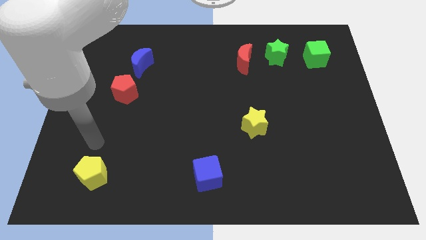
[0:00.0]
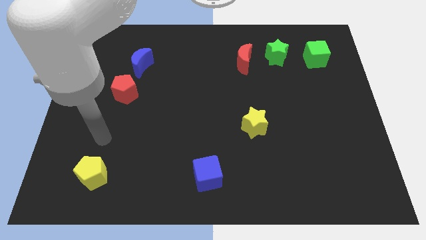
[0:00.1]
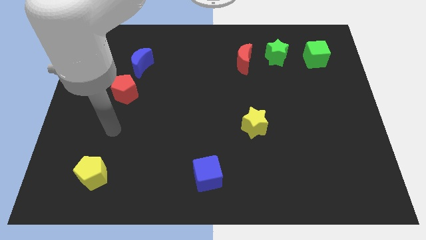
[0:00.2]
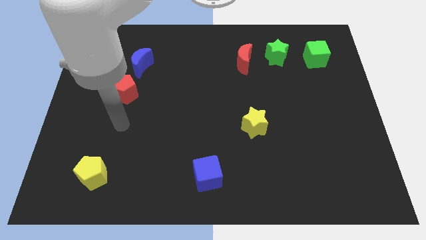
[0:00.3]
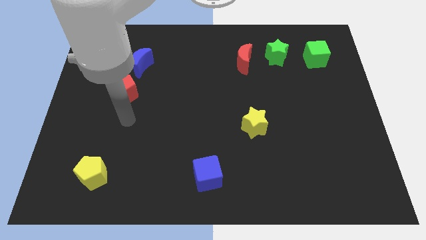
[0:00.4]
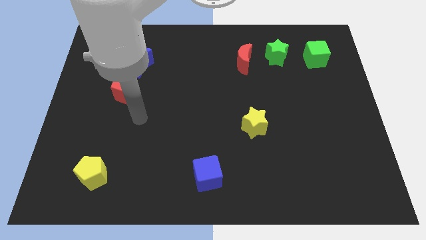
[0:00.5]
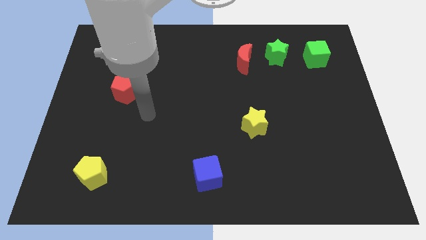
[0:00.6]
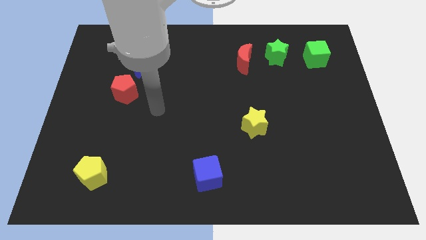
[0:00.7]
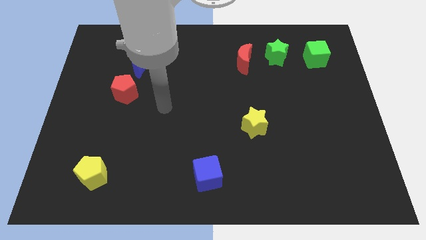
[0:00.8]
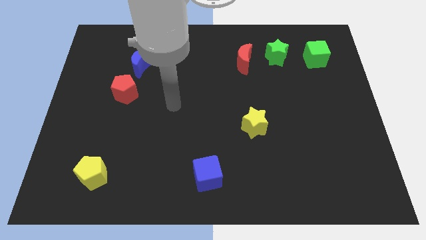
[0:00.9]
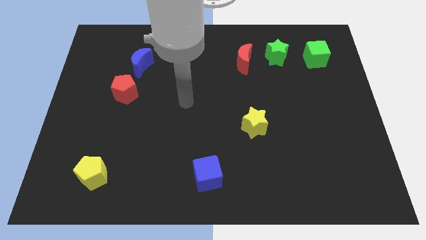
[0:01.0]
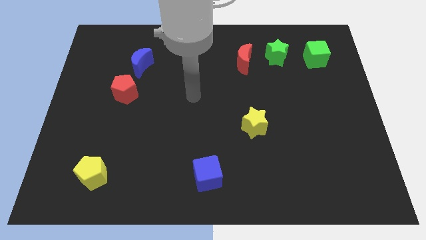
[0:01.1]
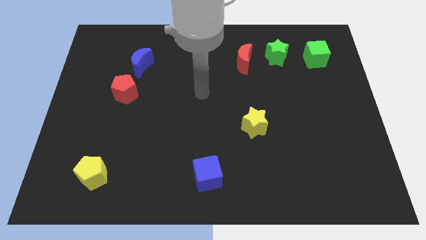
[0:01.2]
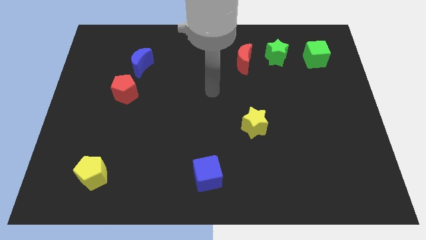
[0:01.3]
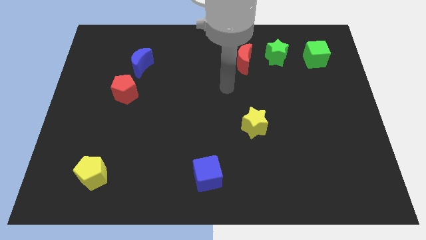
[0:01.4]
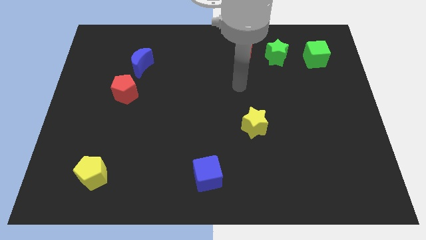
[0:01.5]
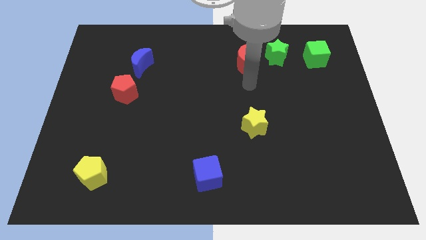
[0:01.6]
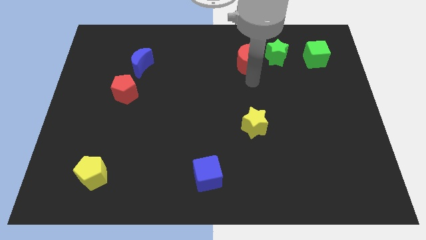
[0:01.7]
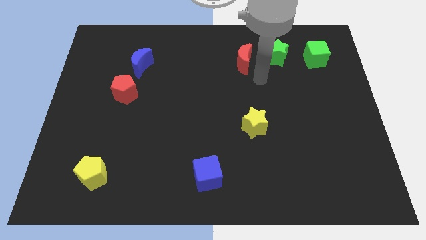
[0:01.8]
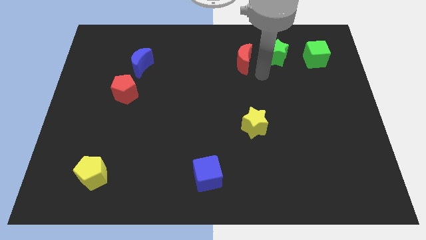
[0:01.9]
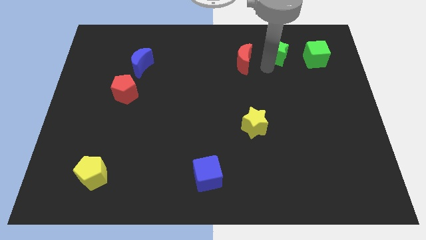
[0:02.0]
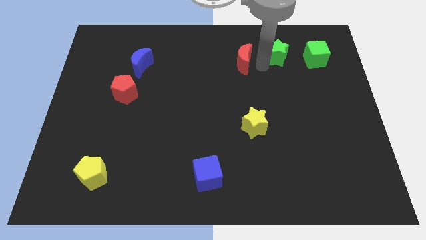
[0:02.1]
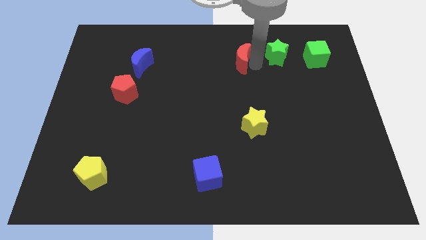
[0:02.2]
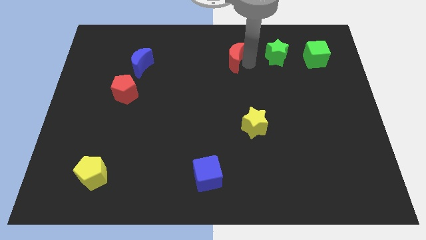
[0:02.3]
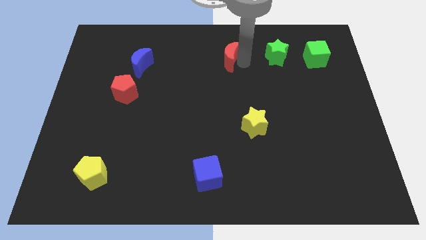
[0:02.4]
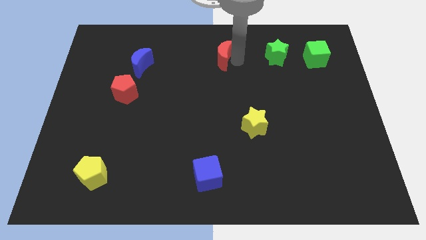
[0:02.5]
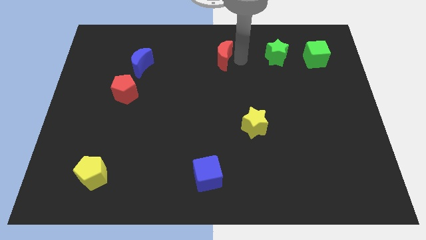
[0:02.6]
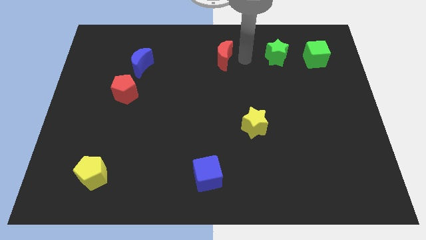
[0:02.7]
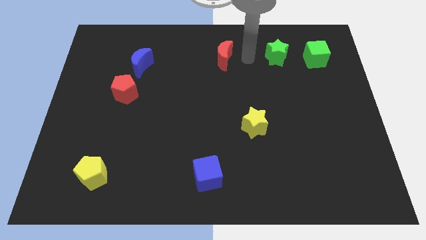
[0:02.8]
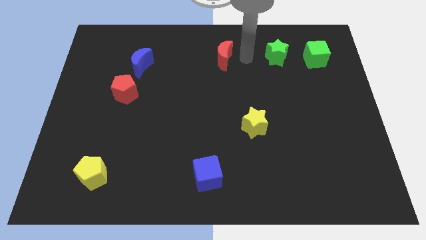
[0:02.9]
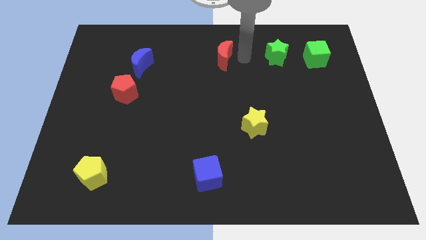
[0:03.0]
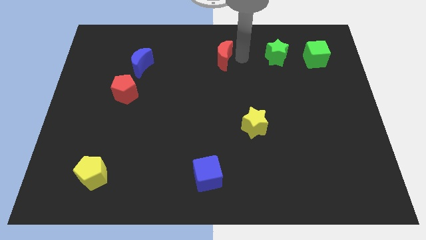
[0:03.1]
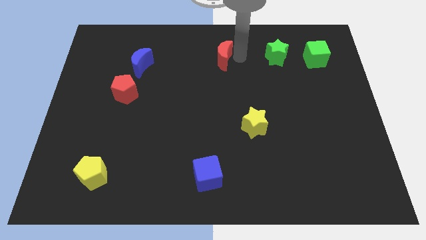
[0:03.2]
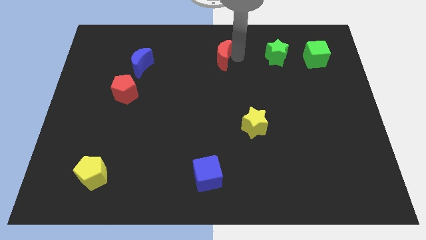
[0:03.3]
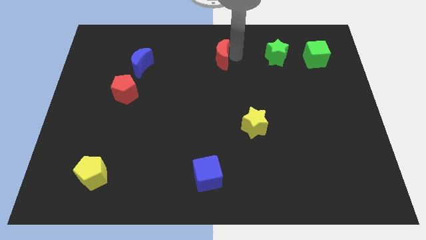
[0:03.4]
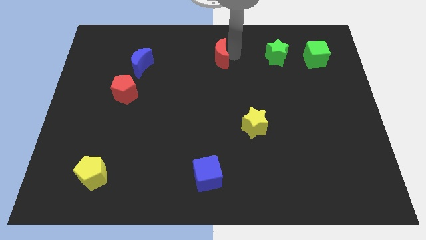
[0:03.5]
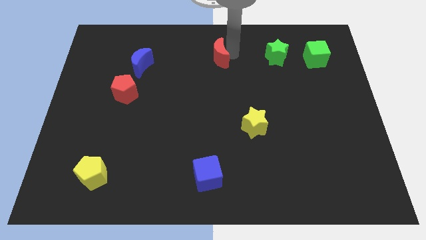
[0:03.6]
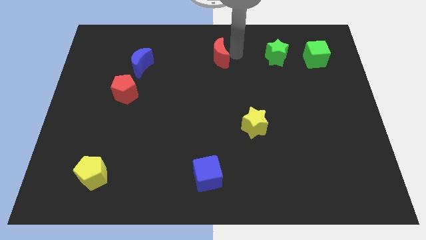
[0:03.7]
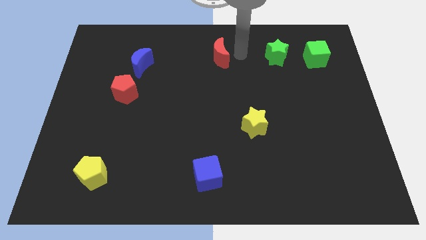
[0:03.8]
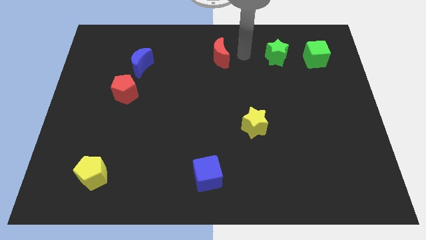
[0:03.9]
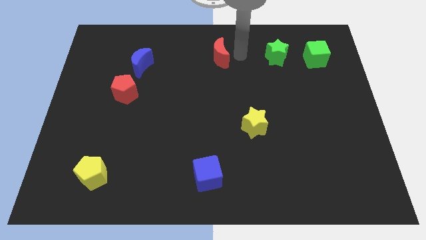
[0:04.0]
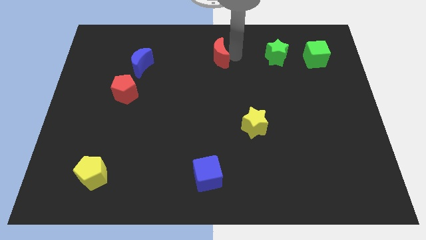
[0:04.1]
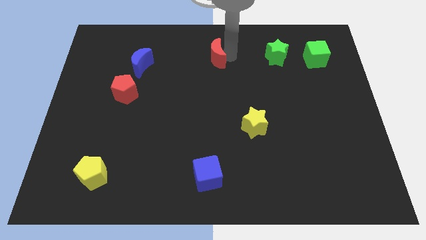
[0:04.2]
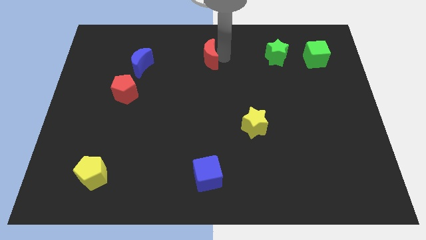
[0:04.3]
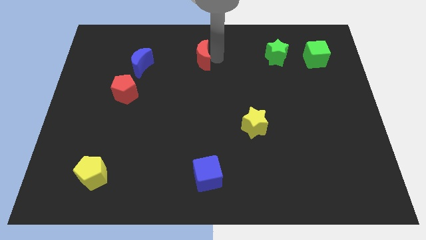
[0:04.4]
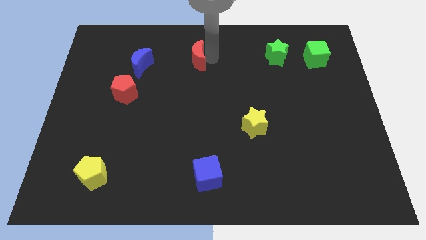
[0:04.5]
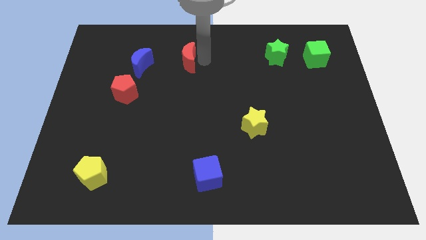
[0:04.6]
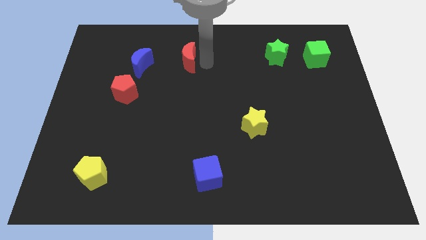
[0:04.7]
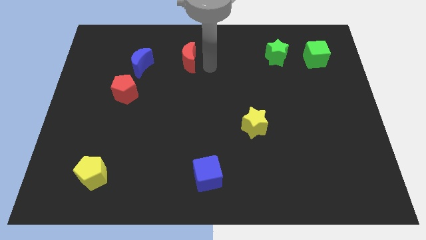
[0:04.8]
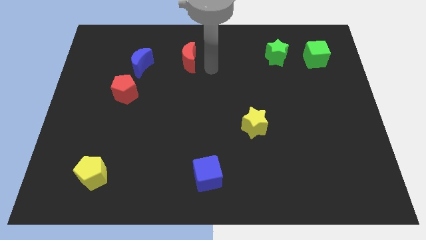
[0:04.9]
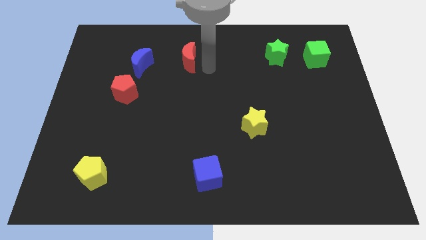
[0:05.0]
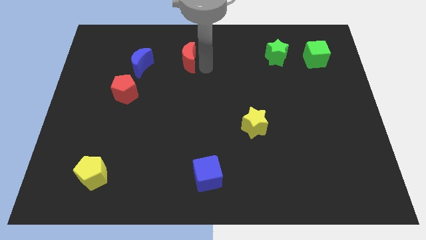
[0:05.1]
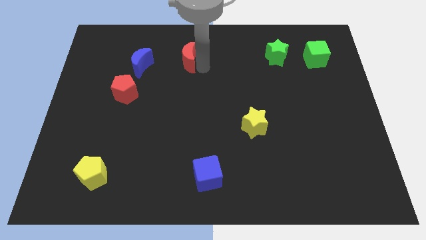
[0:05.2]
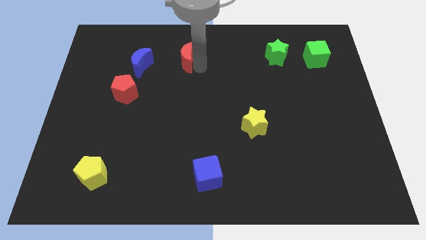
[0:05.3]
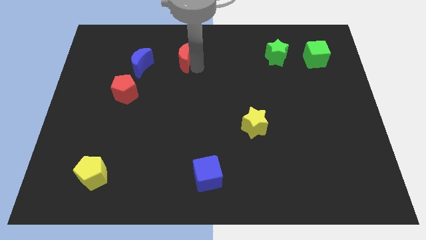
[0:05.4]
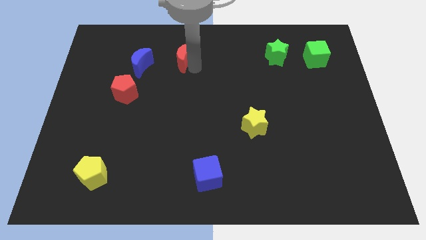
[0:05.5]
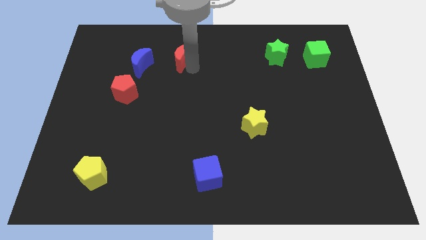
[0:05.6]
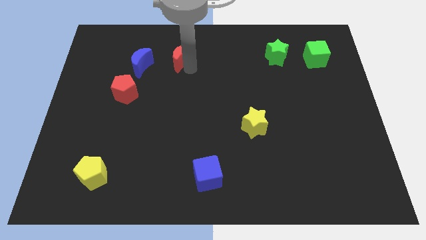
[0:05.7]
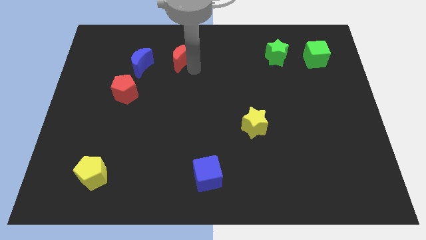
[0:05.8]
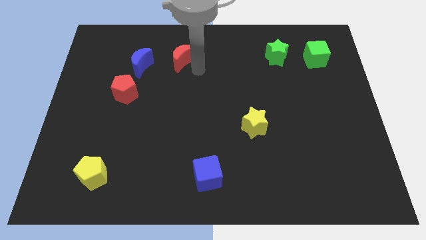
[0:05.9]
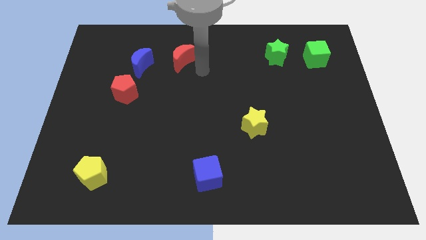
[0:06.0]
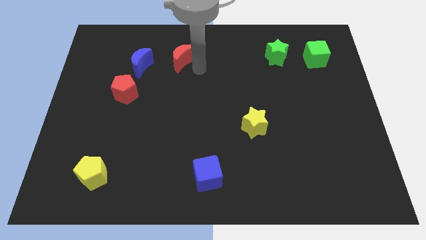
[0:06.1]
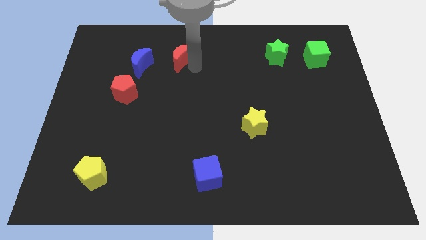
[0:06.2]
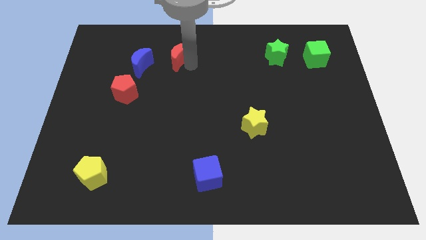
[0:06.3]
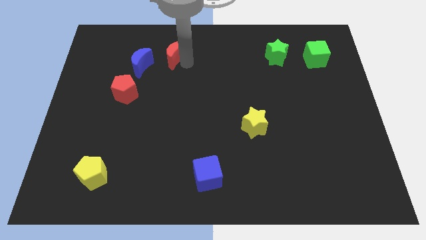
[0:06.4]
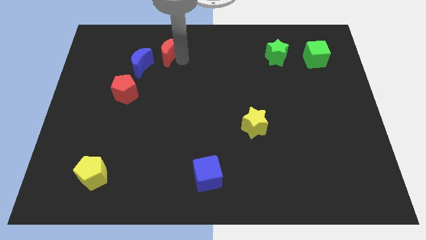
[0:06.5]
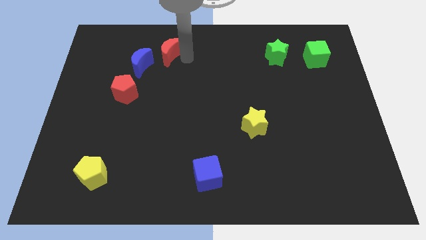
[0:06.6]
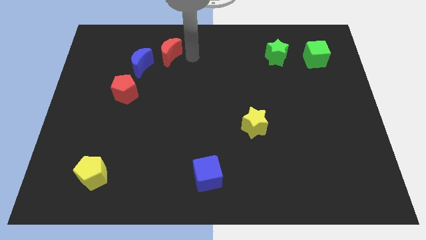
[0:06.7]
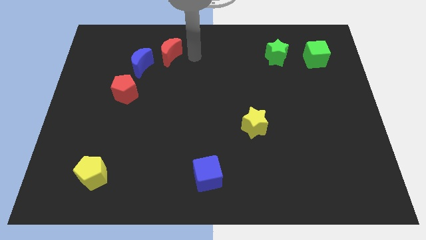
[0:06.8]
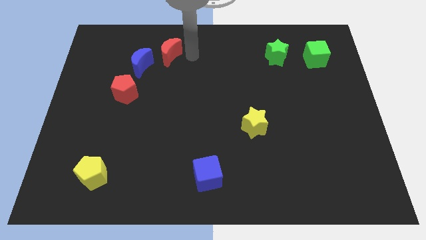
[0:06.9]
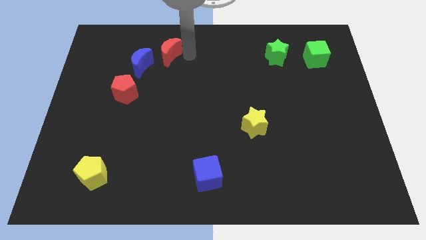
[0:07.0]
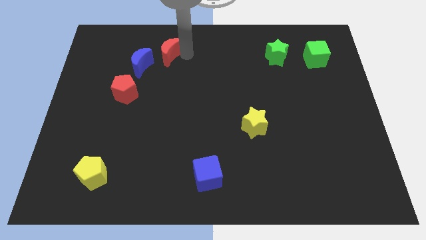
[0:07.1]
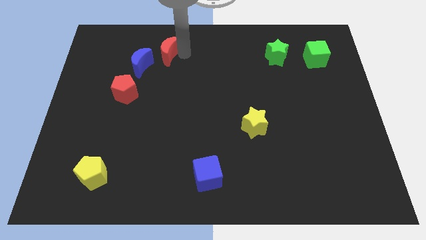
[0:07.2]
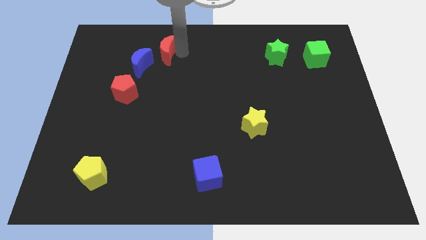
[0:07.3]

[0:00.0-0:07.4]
push the red moon to the left

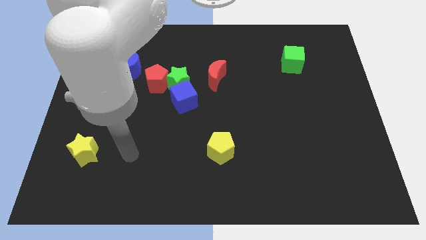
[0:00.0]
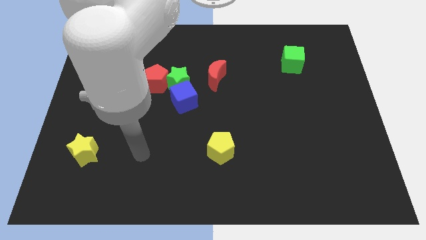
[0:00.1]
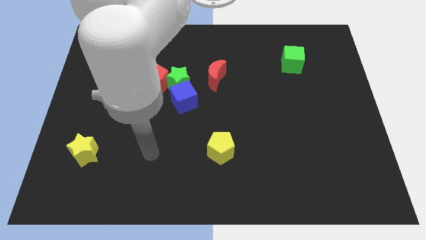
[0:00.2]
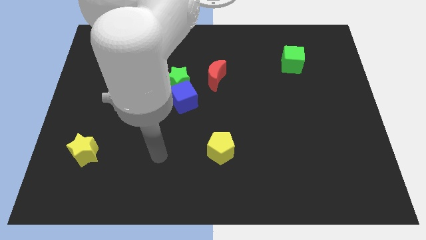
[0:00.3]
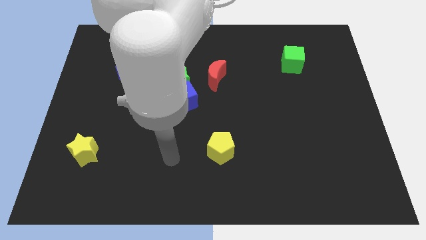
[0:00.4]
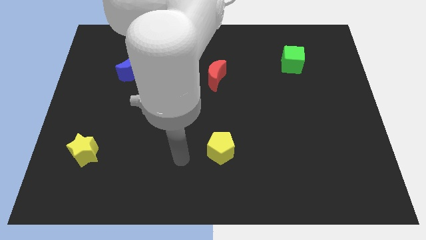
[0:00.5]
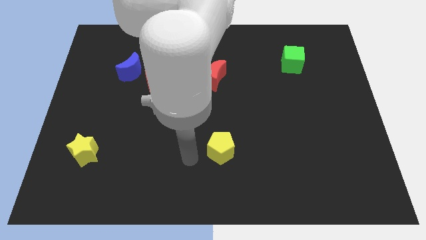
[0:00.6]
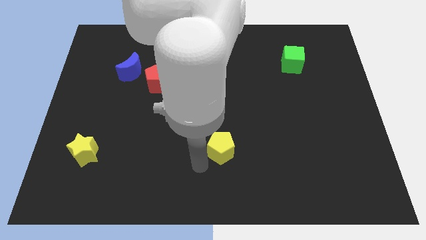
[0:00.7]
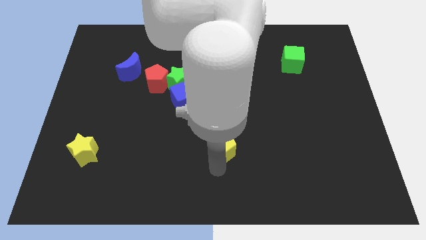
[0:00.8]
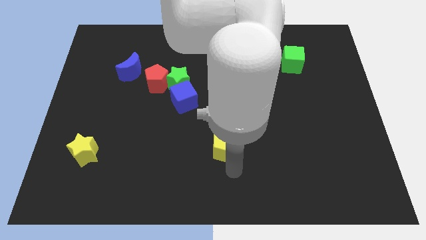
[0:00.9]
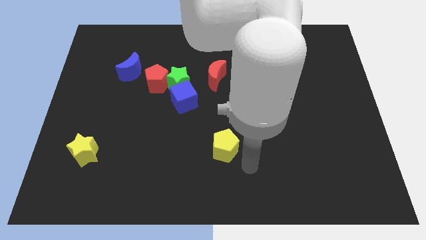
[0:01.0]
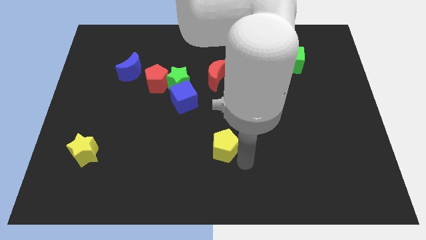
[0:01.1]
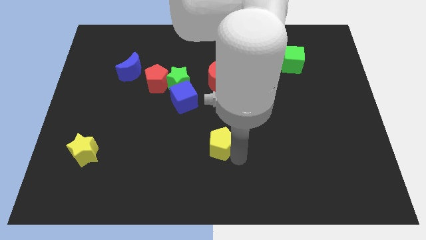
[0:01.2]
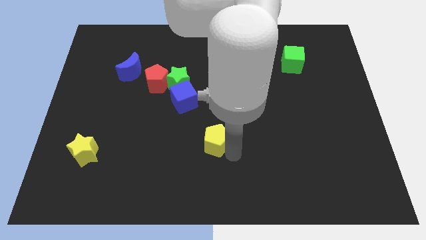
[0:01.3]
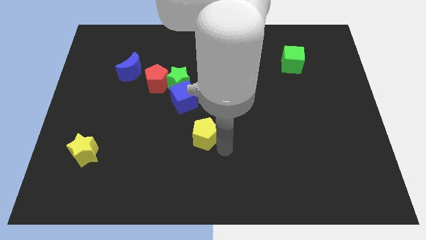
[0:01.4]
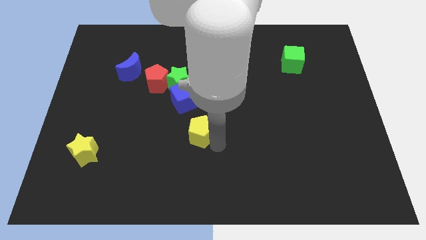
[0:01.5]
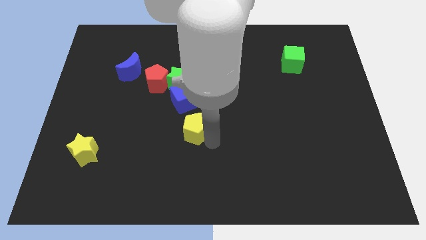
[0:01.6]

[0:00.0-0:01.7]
push the yellow pentagon up and to the left slightly
